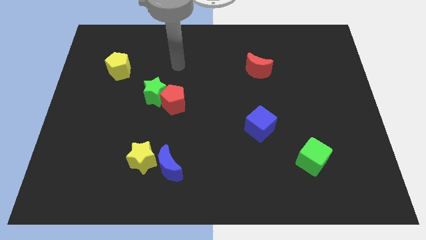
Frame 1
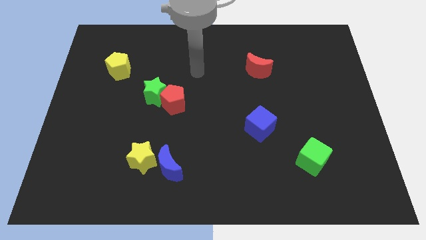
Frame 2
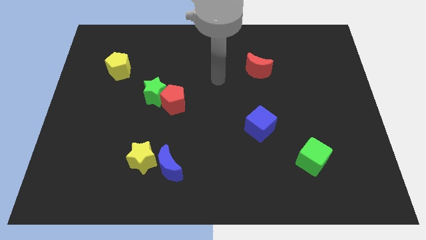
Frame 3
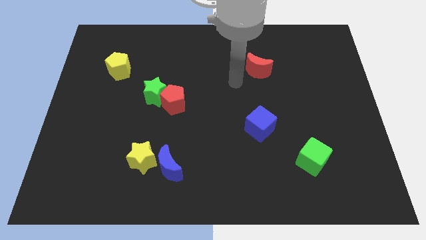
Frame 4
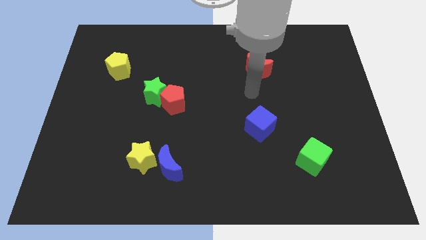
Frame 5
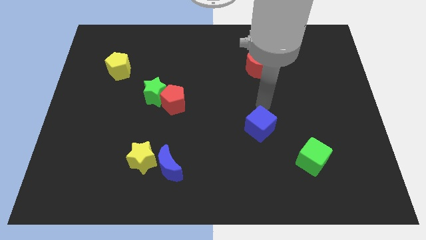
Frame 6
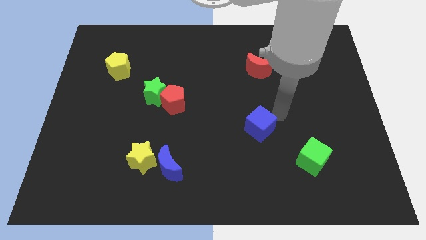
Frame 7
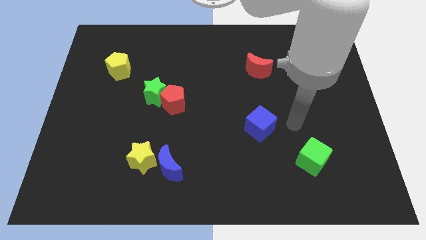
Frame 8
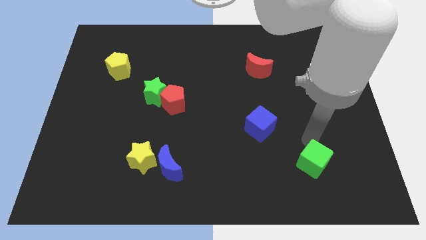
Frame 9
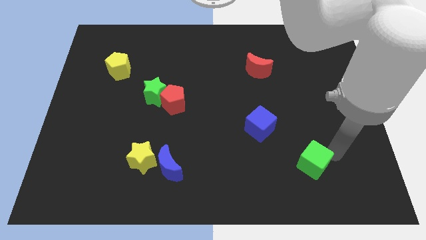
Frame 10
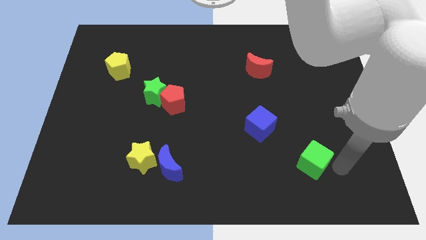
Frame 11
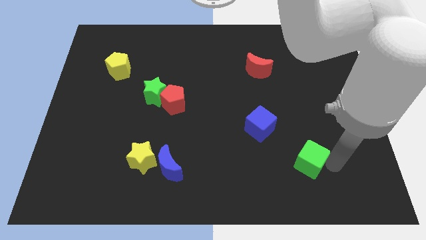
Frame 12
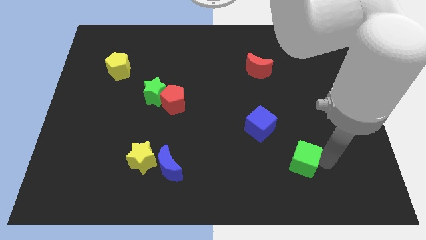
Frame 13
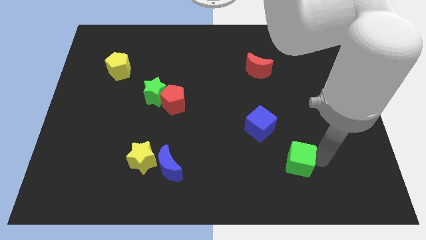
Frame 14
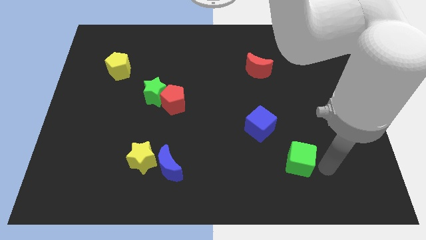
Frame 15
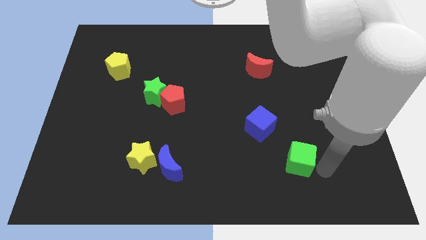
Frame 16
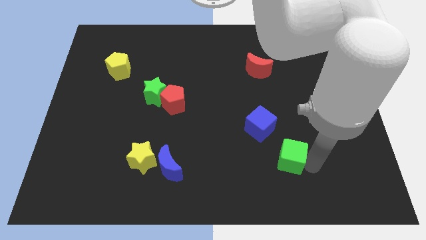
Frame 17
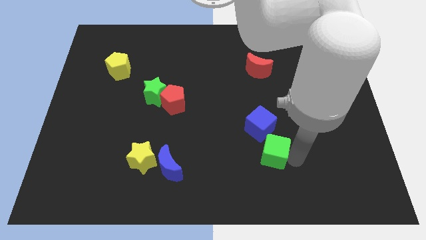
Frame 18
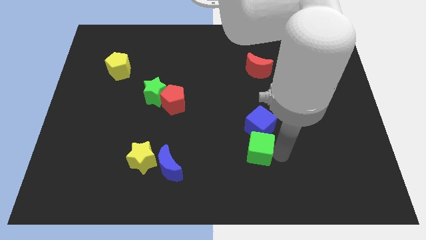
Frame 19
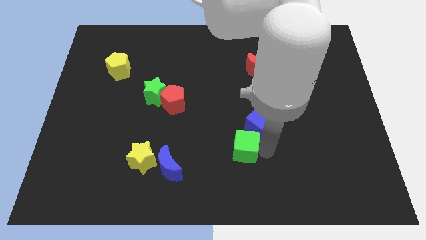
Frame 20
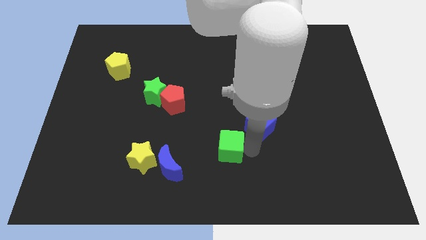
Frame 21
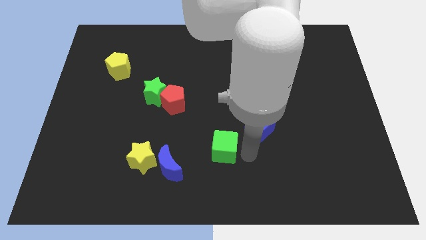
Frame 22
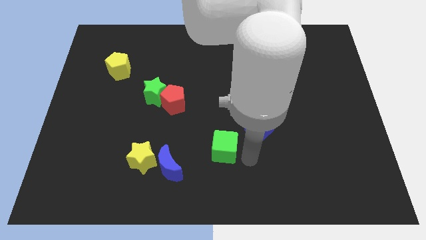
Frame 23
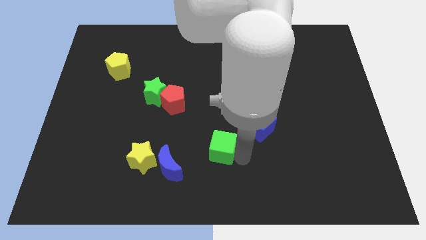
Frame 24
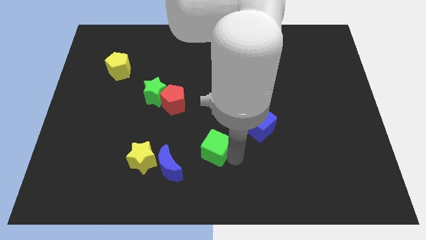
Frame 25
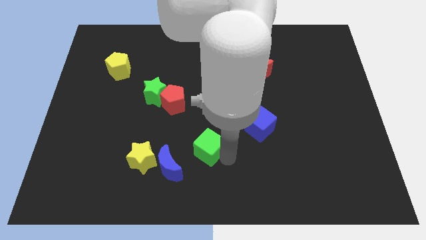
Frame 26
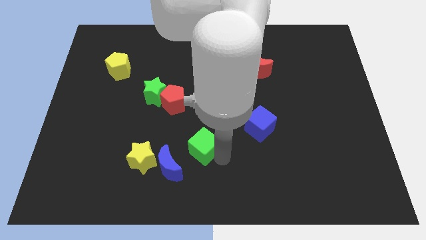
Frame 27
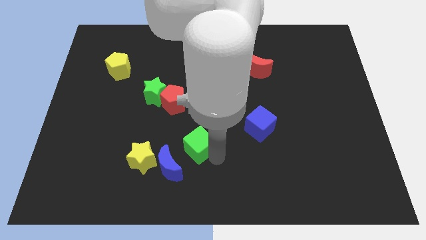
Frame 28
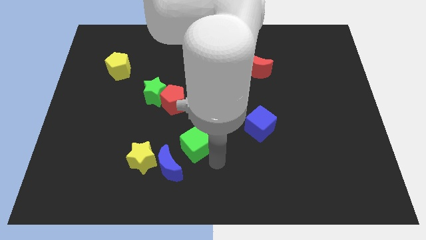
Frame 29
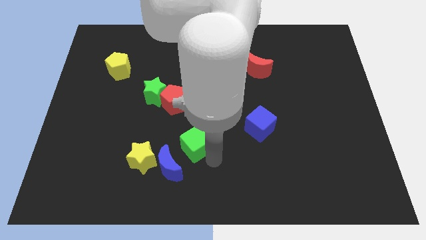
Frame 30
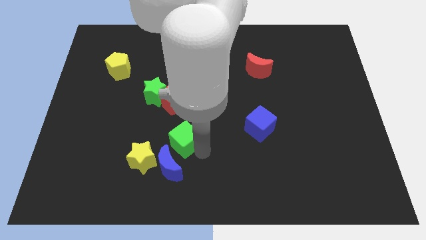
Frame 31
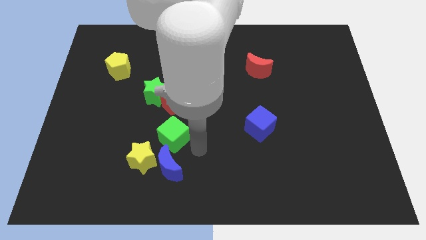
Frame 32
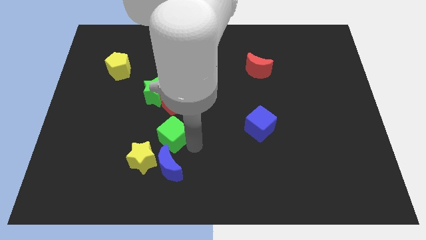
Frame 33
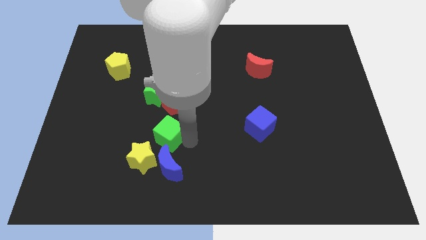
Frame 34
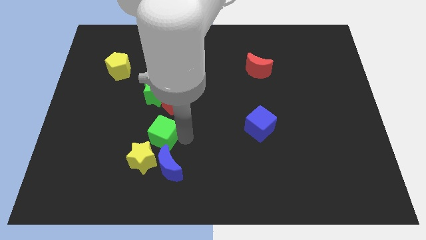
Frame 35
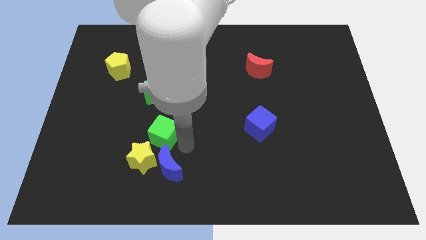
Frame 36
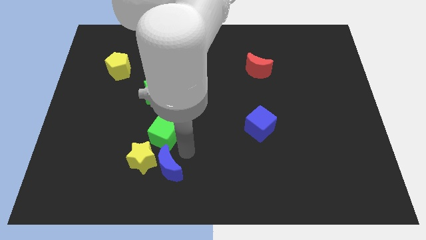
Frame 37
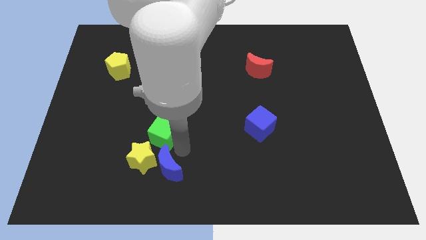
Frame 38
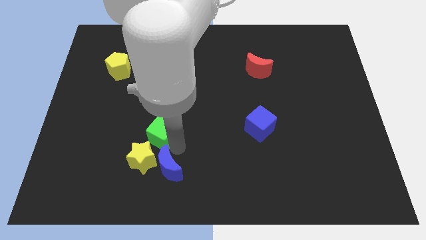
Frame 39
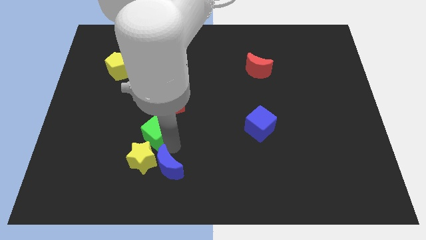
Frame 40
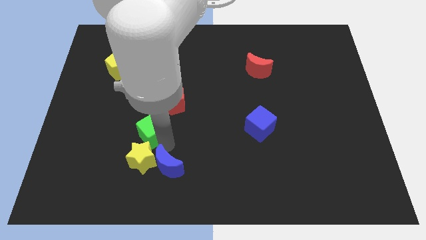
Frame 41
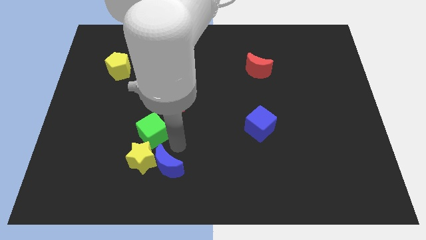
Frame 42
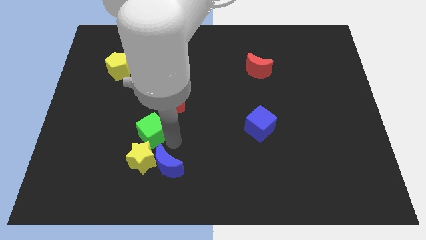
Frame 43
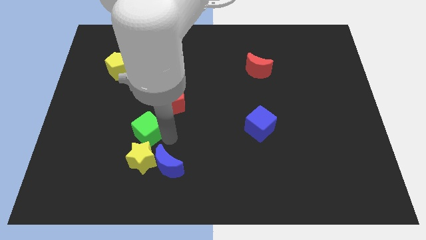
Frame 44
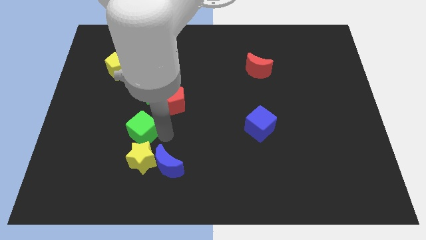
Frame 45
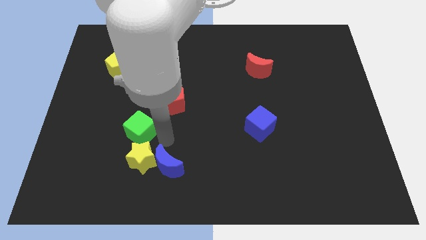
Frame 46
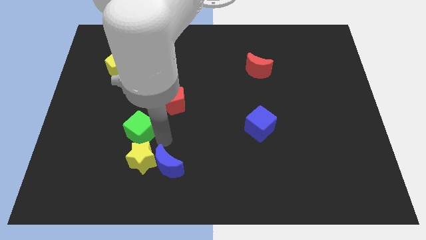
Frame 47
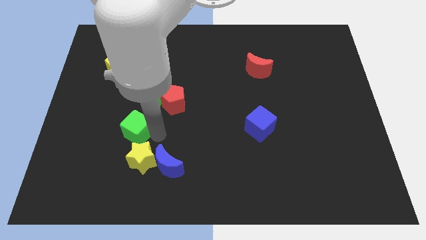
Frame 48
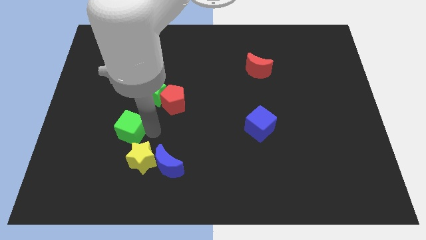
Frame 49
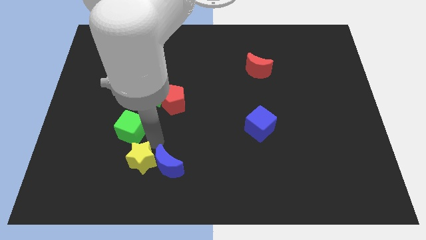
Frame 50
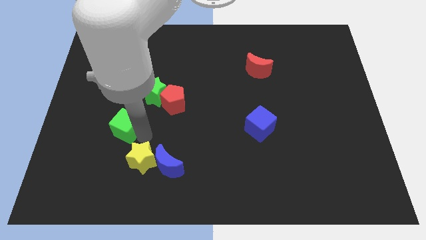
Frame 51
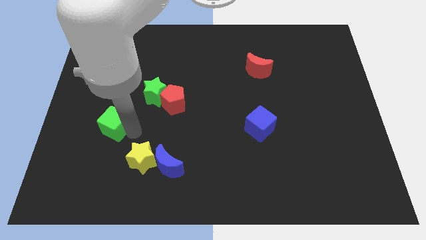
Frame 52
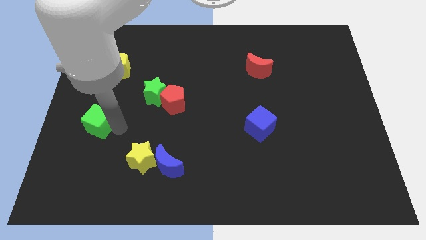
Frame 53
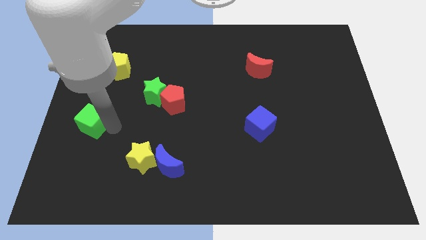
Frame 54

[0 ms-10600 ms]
push the green cube to the center left
